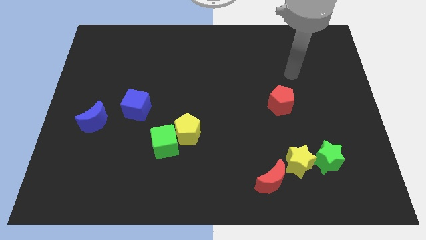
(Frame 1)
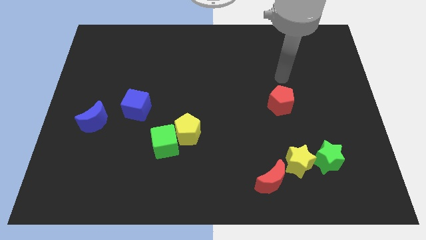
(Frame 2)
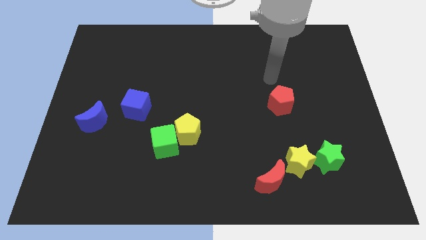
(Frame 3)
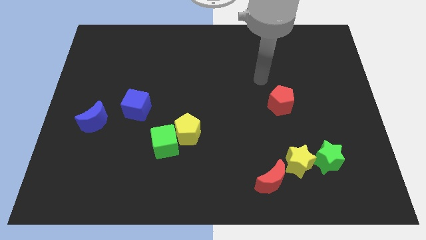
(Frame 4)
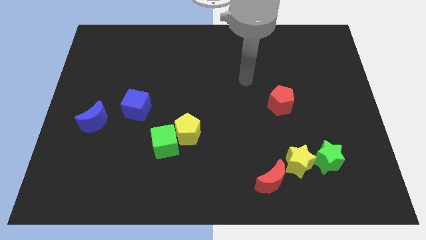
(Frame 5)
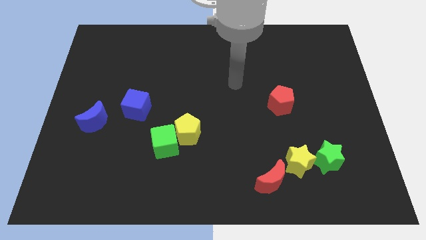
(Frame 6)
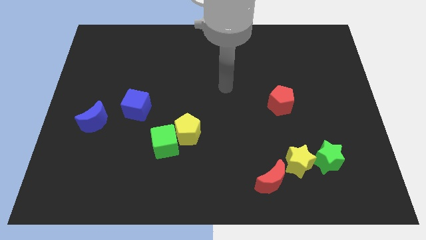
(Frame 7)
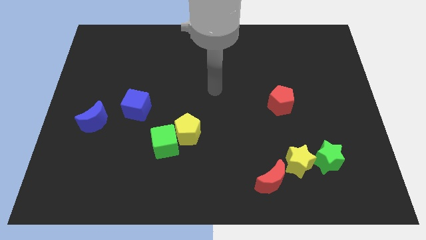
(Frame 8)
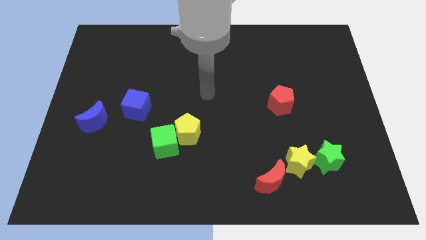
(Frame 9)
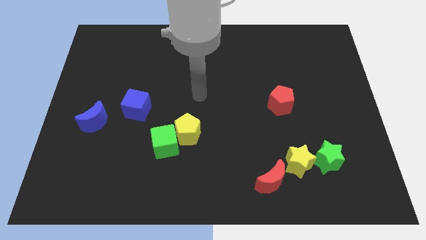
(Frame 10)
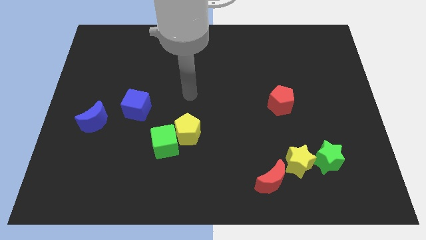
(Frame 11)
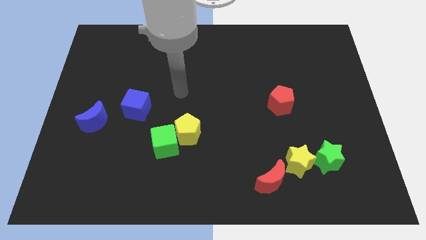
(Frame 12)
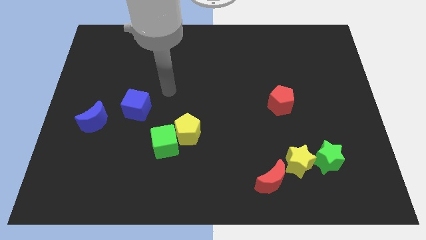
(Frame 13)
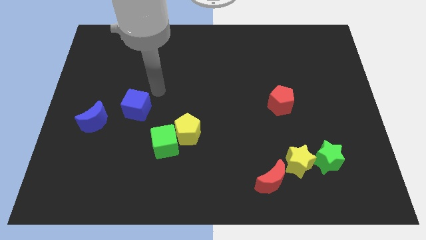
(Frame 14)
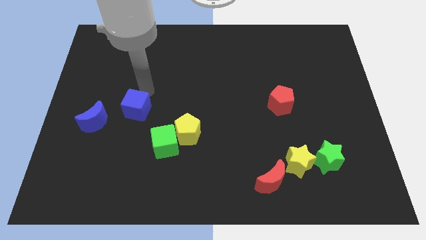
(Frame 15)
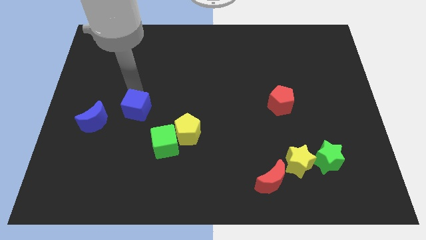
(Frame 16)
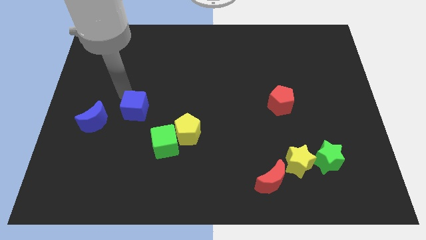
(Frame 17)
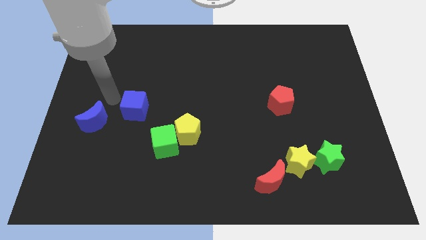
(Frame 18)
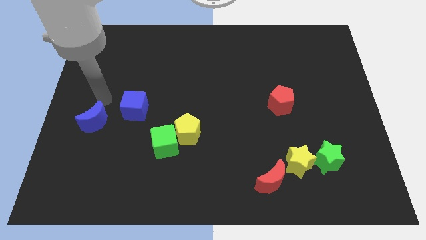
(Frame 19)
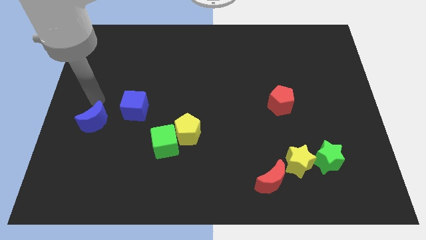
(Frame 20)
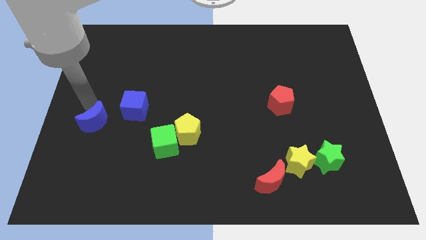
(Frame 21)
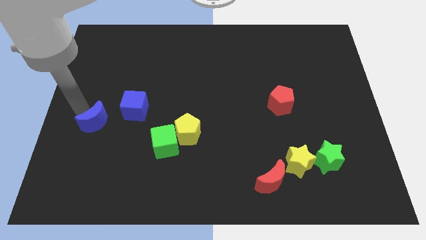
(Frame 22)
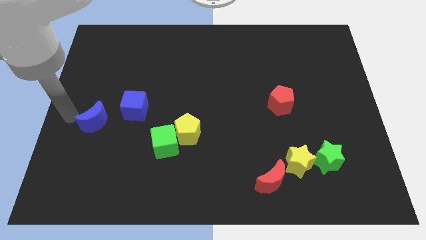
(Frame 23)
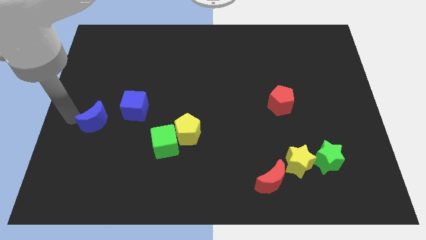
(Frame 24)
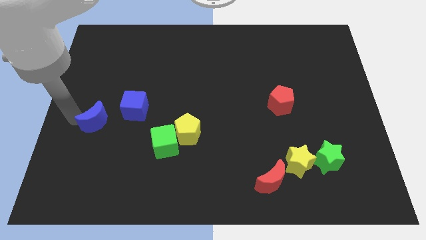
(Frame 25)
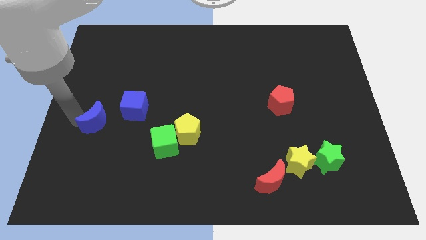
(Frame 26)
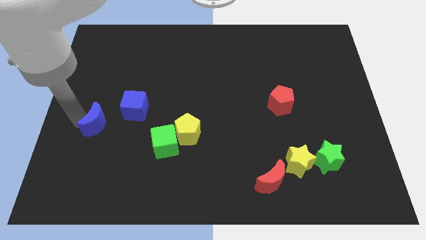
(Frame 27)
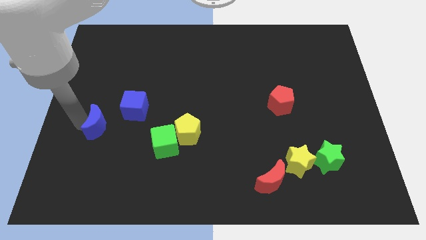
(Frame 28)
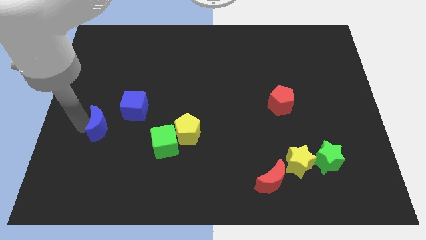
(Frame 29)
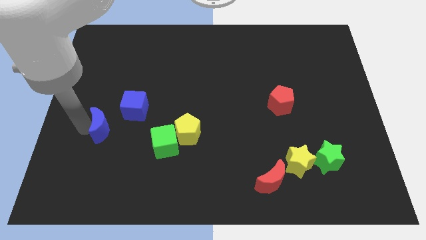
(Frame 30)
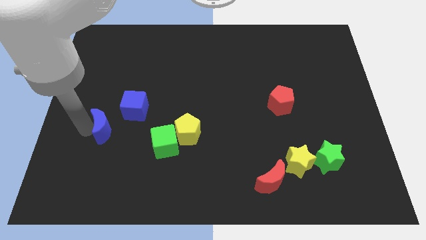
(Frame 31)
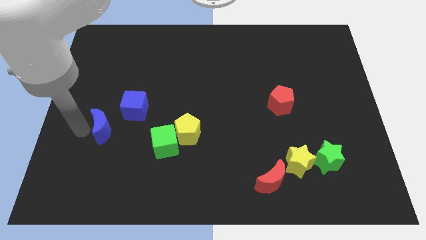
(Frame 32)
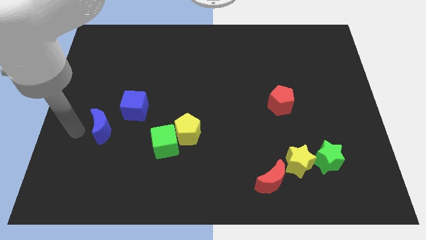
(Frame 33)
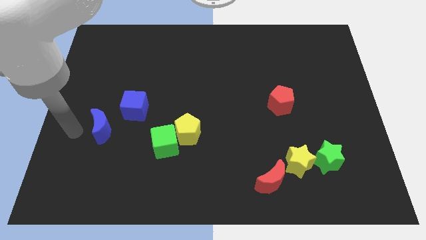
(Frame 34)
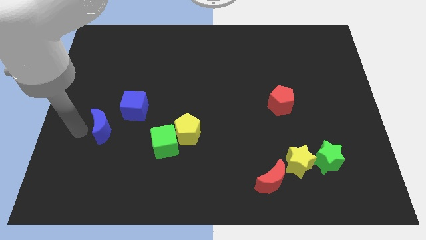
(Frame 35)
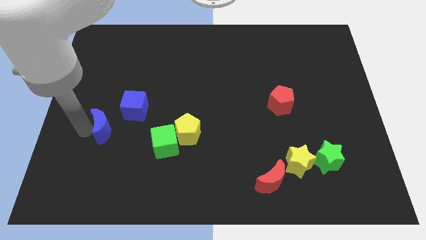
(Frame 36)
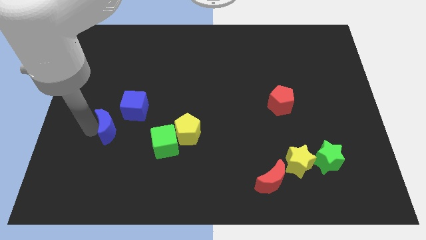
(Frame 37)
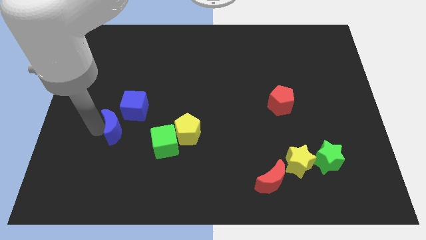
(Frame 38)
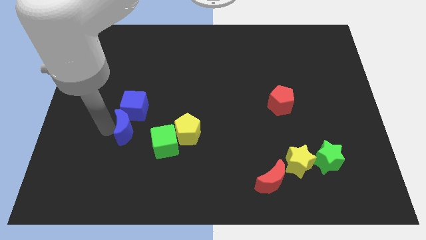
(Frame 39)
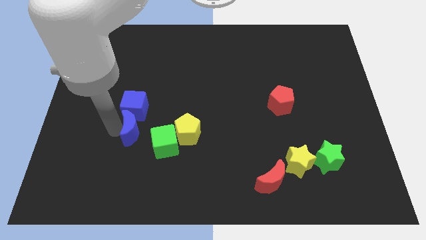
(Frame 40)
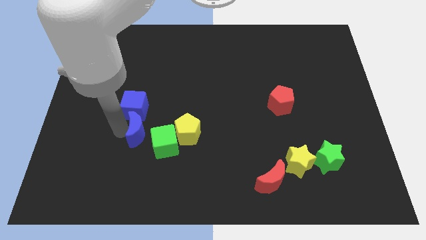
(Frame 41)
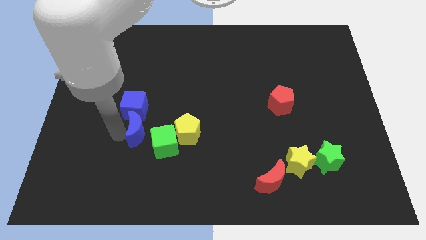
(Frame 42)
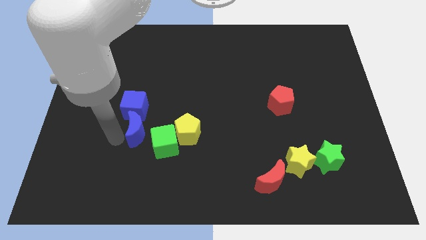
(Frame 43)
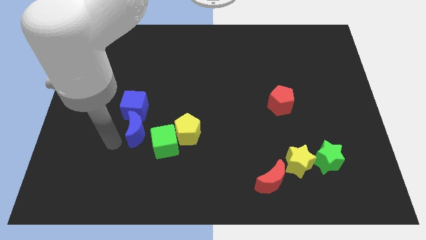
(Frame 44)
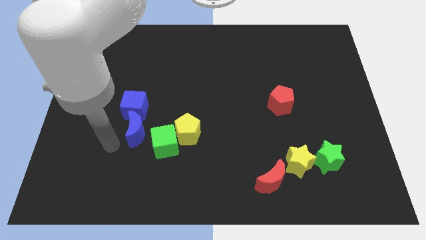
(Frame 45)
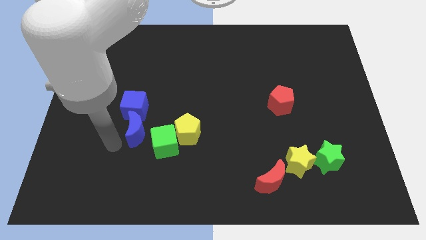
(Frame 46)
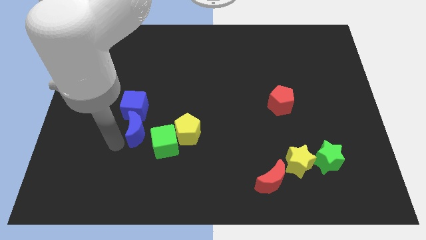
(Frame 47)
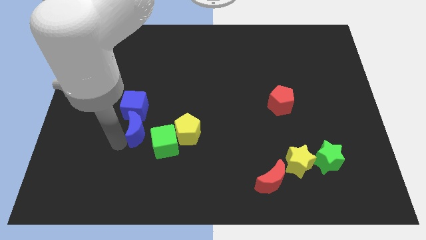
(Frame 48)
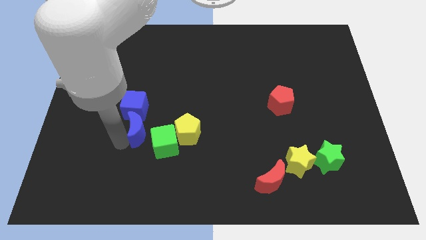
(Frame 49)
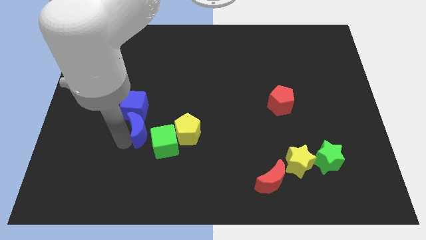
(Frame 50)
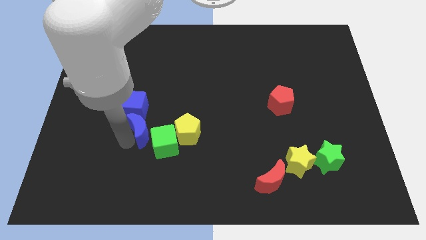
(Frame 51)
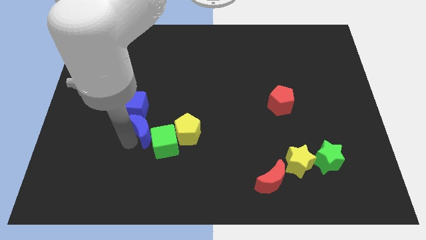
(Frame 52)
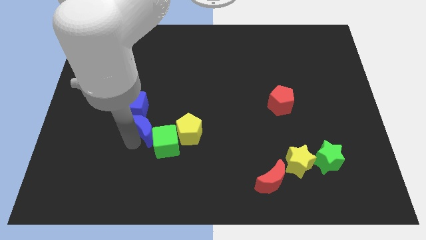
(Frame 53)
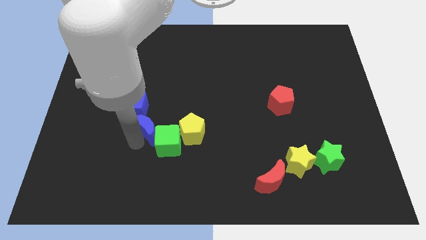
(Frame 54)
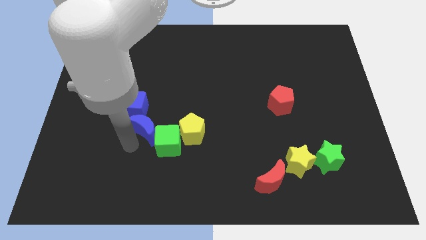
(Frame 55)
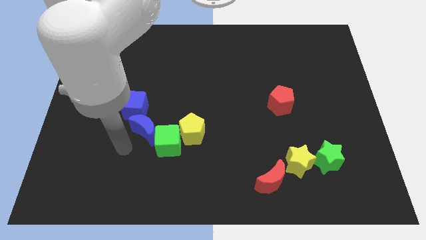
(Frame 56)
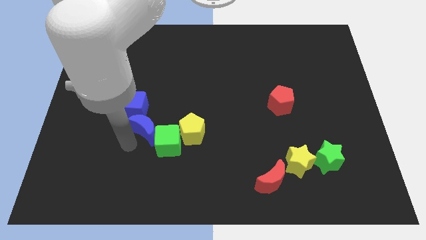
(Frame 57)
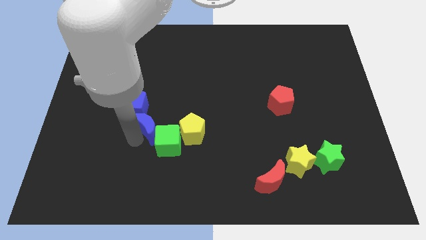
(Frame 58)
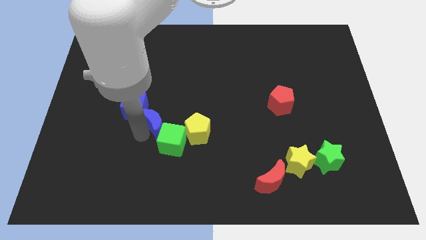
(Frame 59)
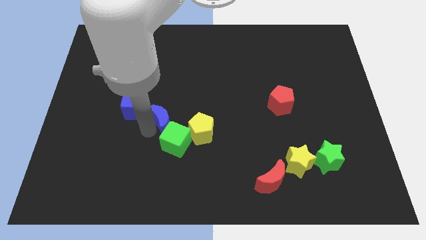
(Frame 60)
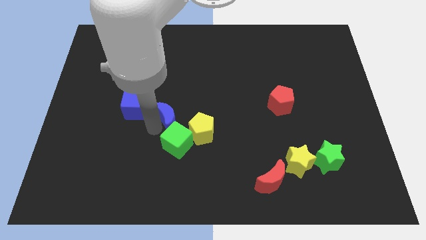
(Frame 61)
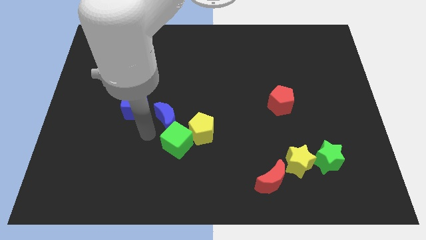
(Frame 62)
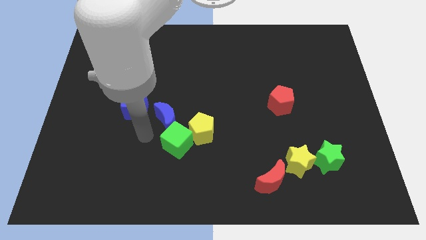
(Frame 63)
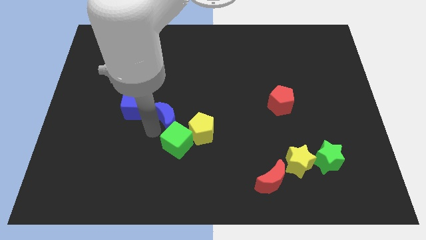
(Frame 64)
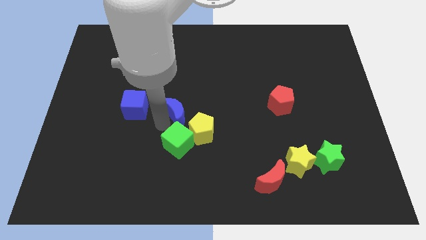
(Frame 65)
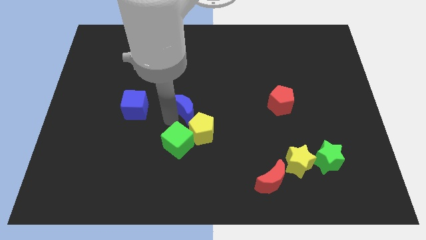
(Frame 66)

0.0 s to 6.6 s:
put the blue moon to the top side of the yellow pentagon

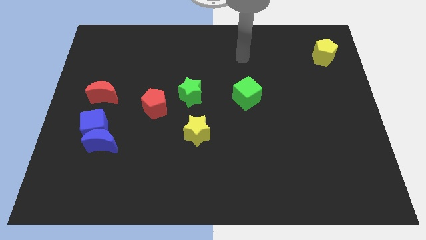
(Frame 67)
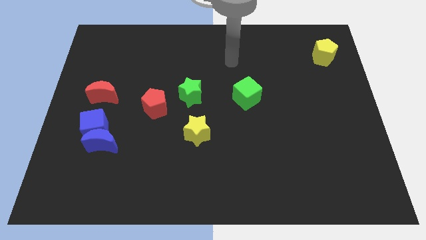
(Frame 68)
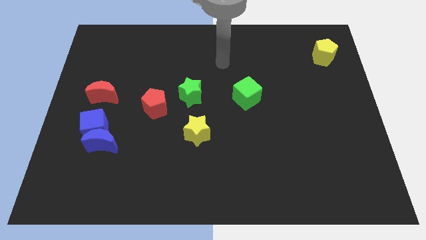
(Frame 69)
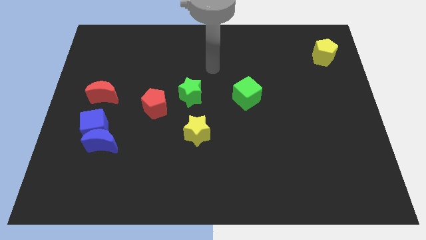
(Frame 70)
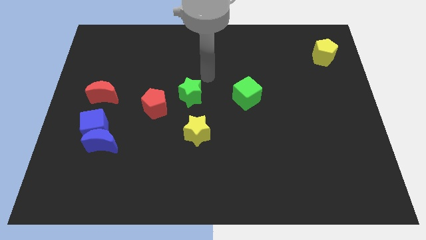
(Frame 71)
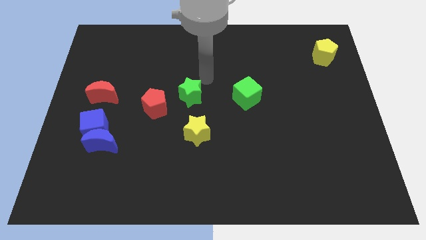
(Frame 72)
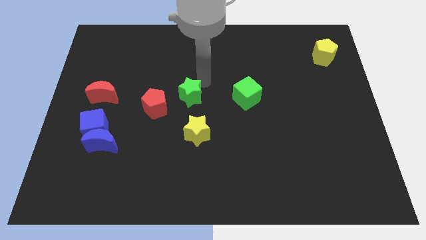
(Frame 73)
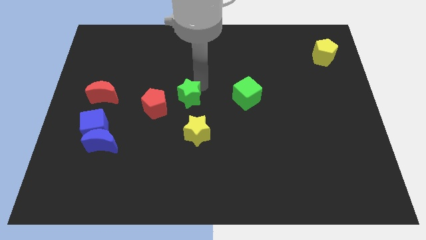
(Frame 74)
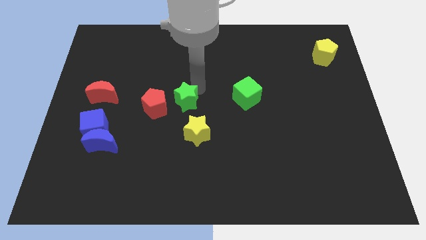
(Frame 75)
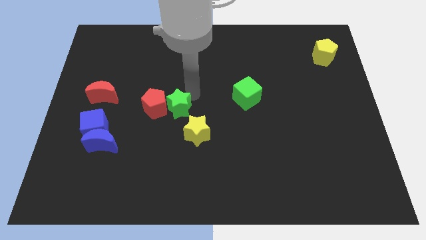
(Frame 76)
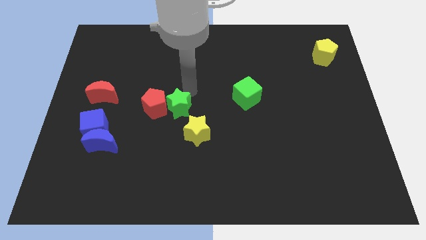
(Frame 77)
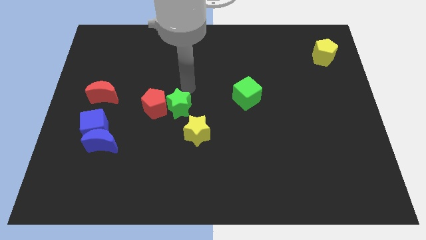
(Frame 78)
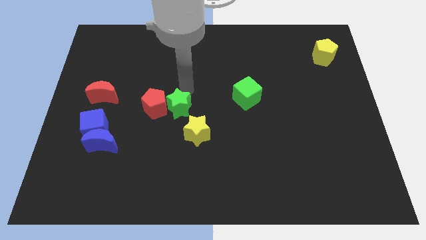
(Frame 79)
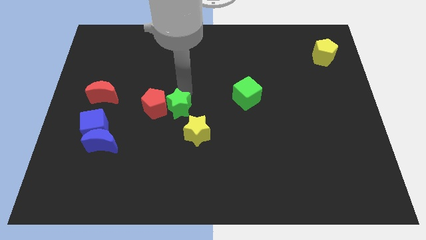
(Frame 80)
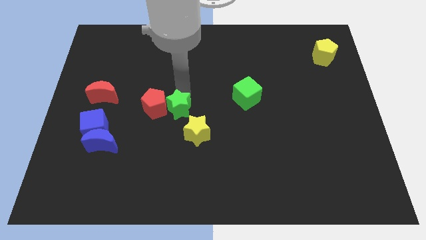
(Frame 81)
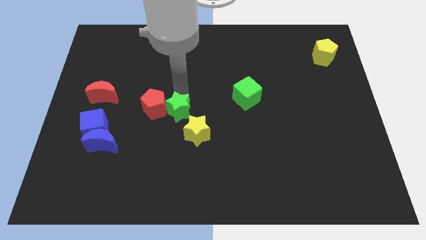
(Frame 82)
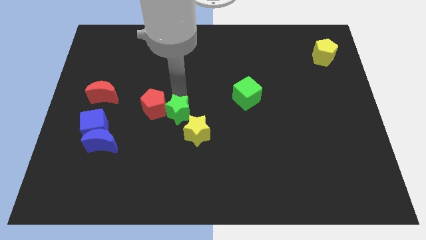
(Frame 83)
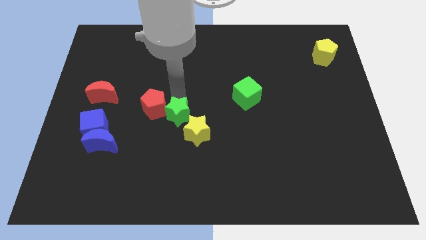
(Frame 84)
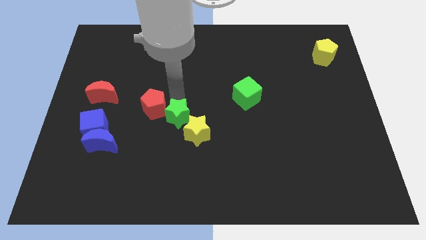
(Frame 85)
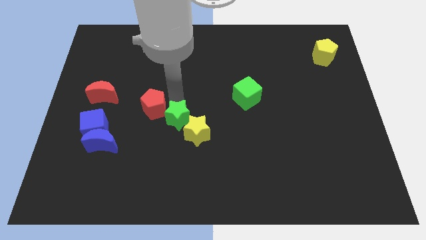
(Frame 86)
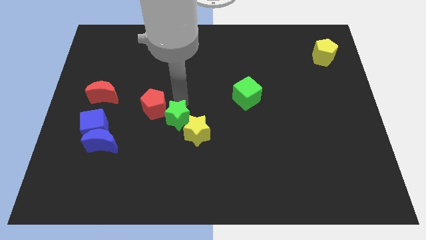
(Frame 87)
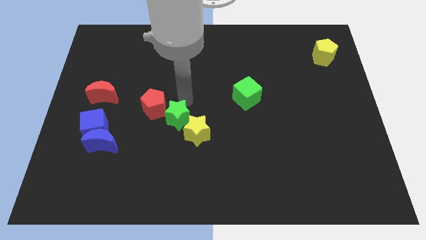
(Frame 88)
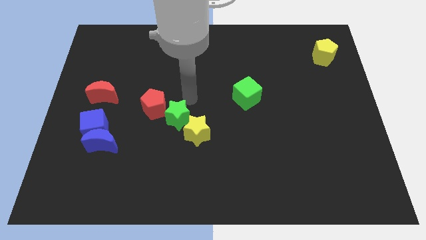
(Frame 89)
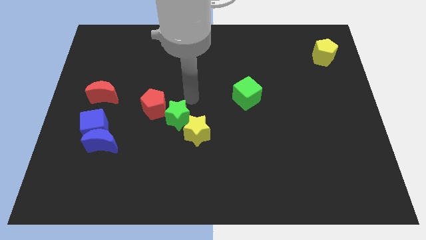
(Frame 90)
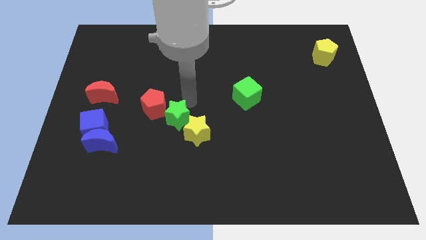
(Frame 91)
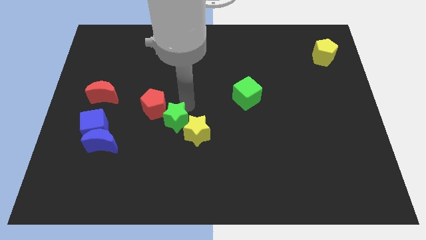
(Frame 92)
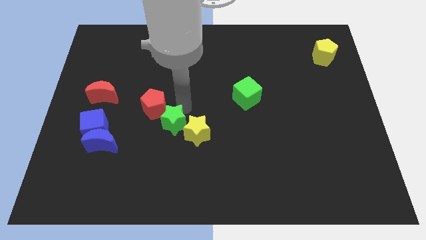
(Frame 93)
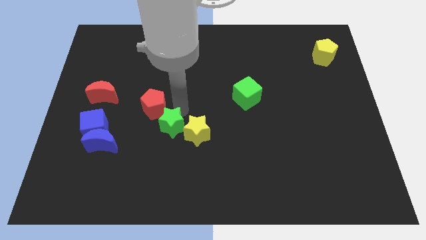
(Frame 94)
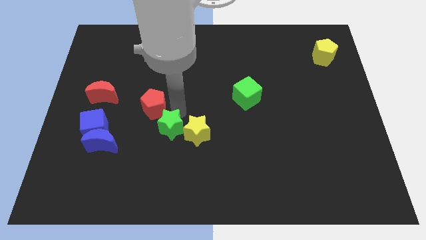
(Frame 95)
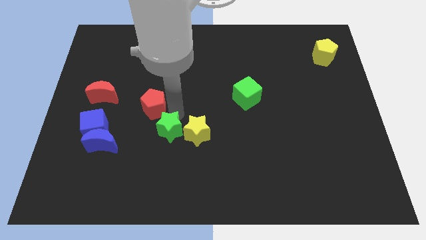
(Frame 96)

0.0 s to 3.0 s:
slide the green star to the bottom left of the yellow star
